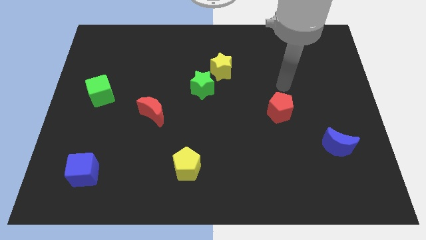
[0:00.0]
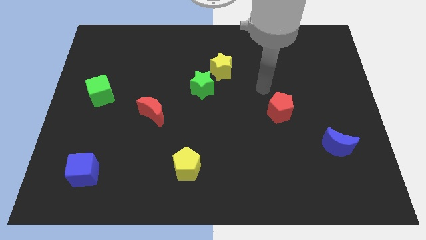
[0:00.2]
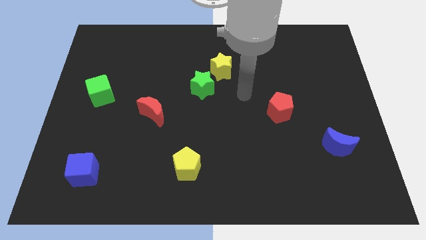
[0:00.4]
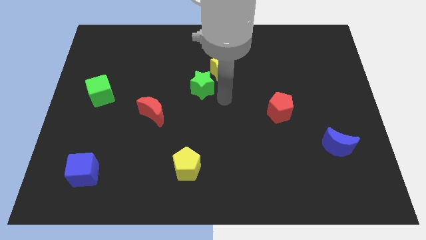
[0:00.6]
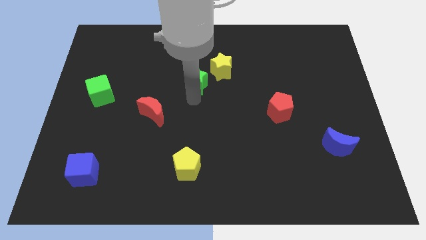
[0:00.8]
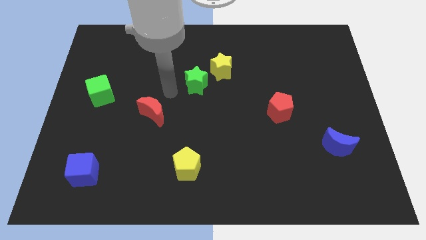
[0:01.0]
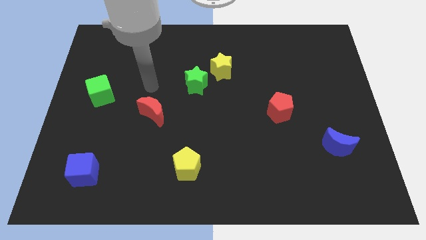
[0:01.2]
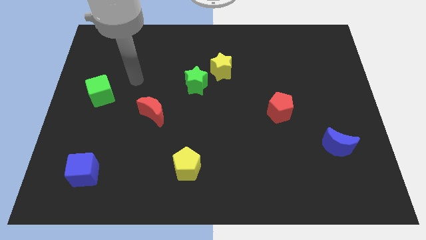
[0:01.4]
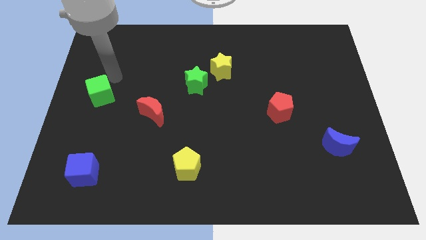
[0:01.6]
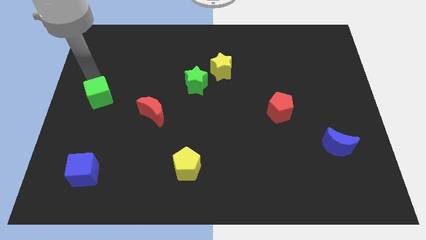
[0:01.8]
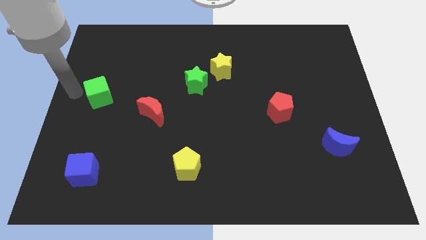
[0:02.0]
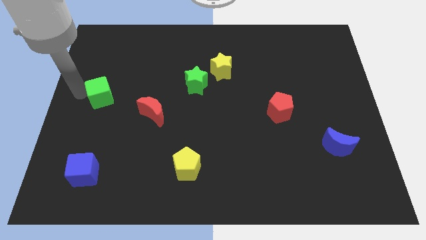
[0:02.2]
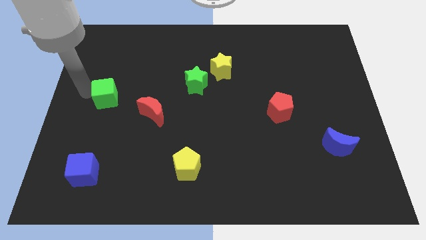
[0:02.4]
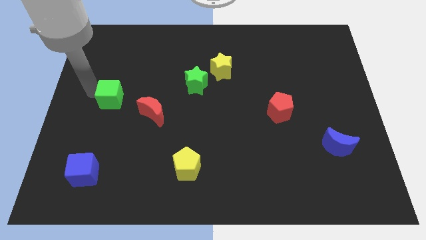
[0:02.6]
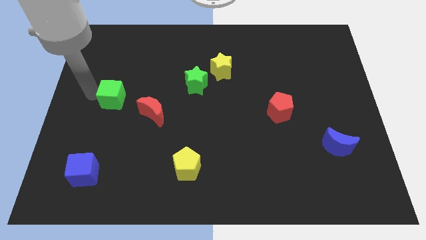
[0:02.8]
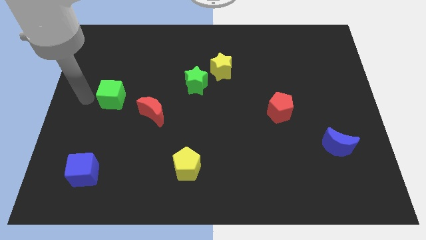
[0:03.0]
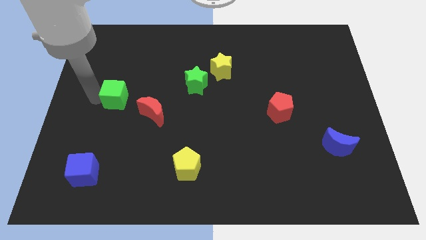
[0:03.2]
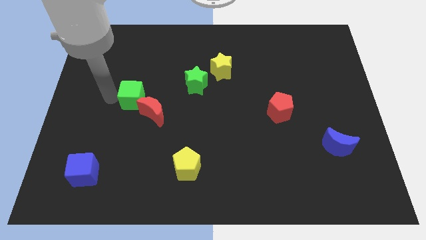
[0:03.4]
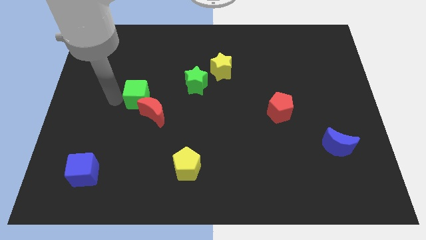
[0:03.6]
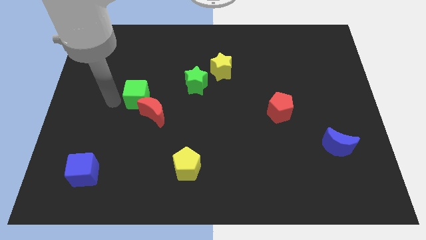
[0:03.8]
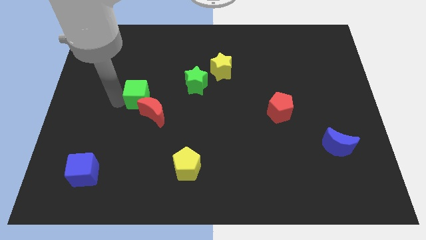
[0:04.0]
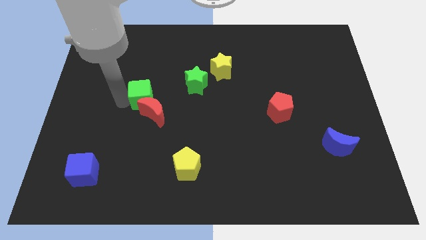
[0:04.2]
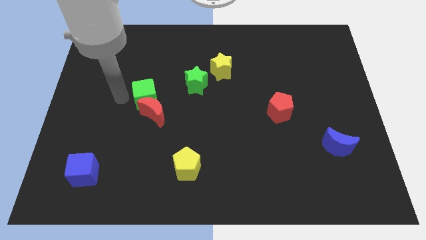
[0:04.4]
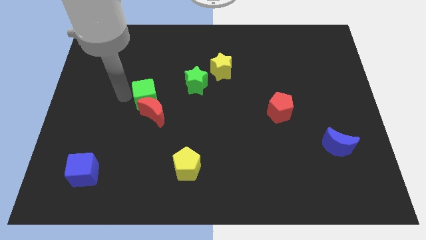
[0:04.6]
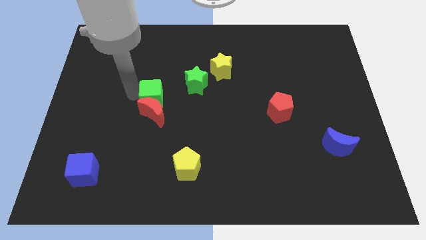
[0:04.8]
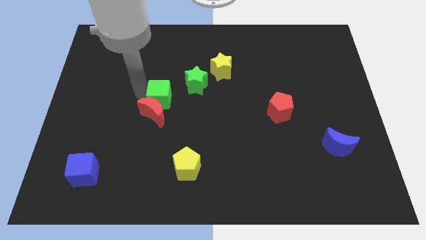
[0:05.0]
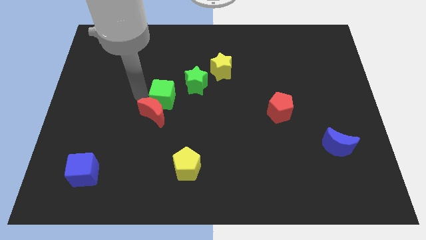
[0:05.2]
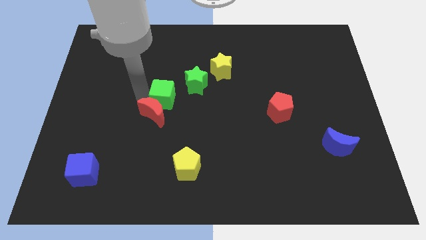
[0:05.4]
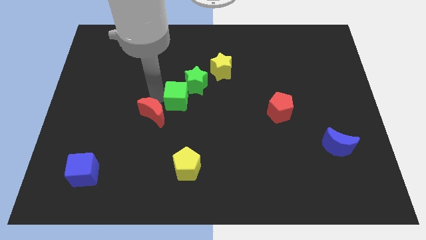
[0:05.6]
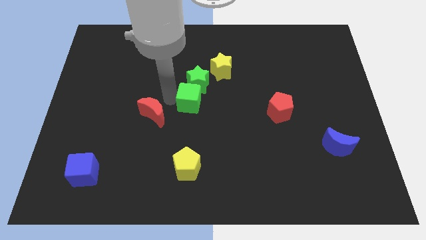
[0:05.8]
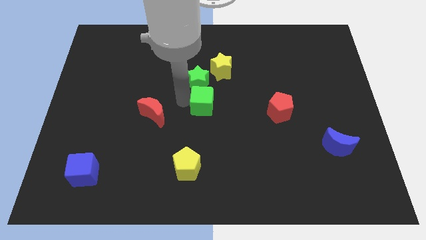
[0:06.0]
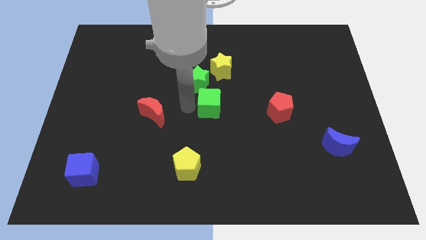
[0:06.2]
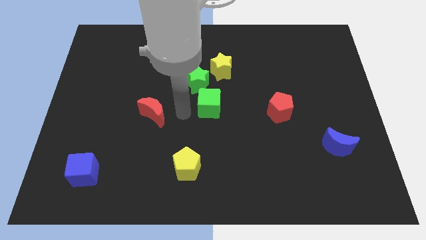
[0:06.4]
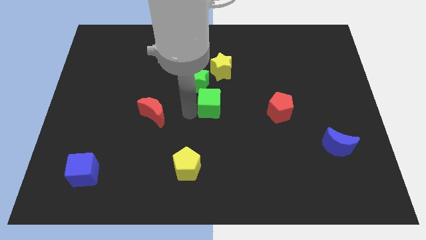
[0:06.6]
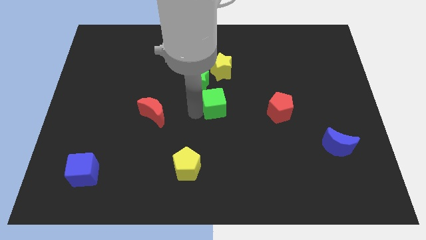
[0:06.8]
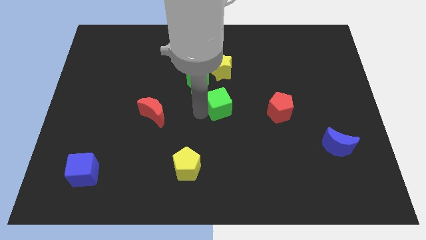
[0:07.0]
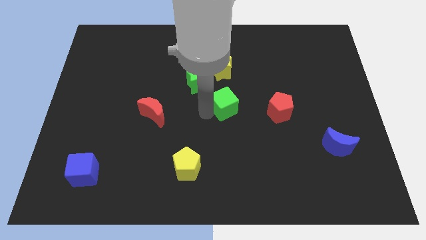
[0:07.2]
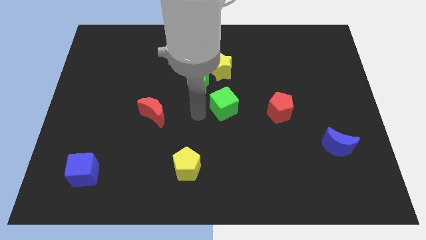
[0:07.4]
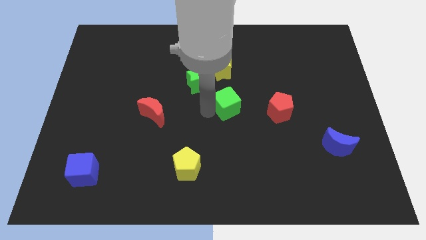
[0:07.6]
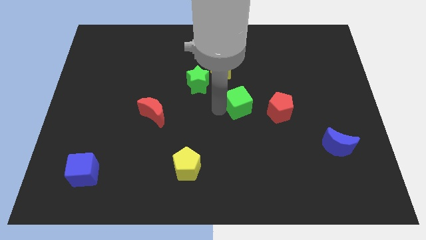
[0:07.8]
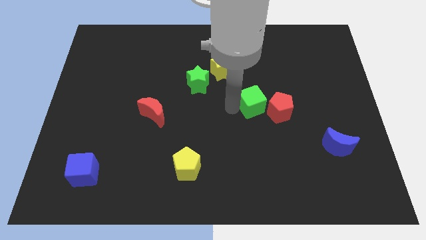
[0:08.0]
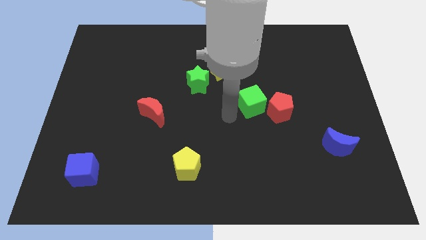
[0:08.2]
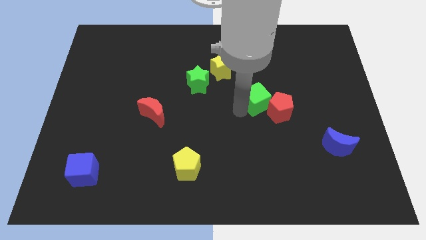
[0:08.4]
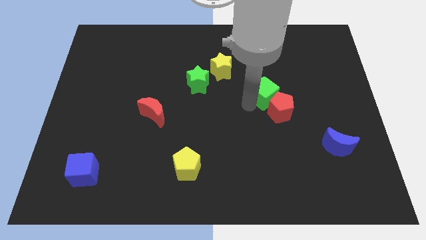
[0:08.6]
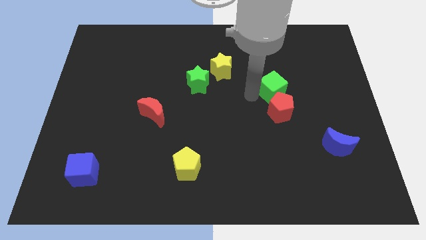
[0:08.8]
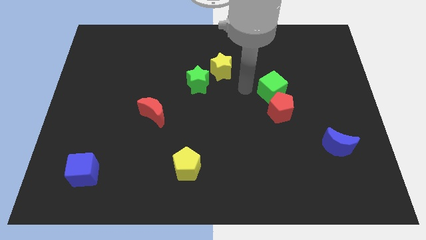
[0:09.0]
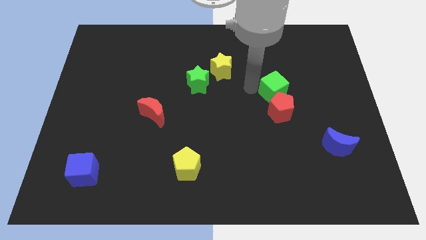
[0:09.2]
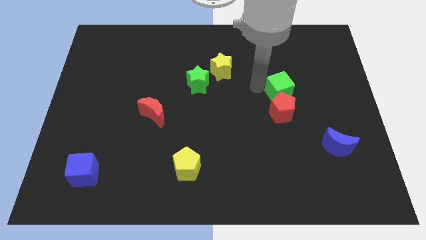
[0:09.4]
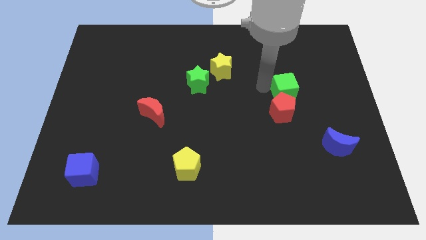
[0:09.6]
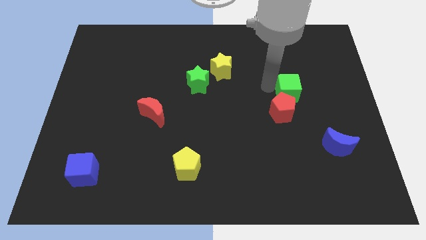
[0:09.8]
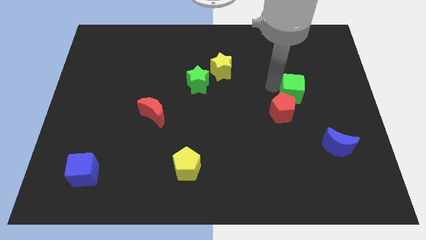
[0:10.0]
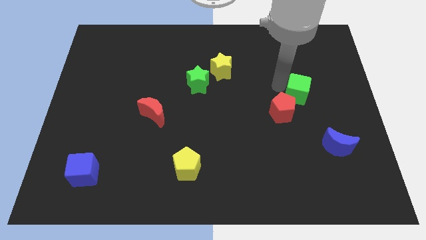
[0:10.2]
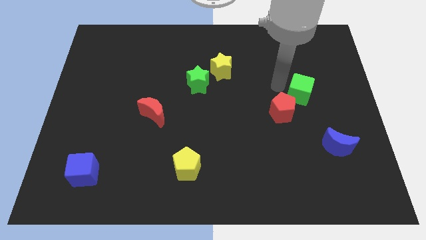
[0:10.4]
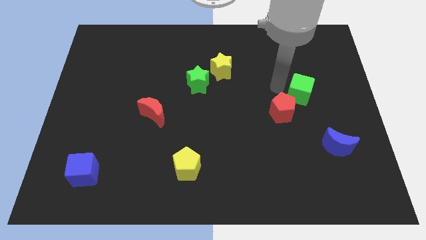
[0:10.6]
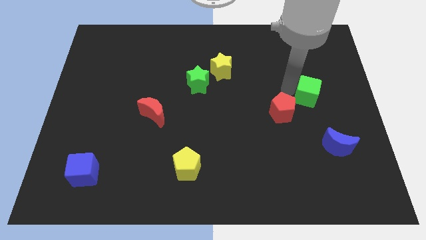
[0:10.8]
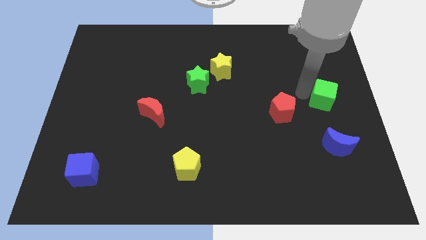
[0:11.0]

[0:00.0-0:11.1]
push the green cube to the right side

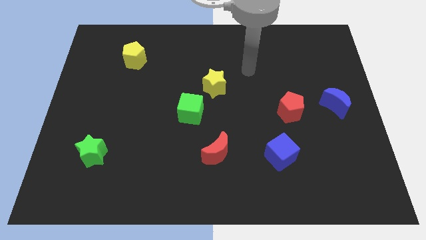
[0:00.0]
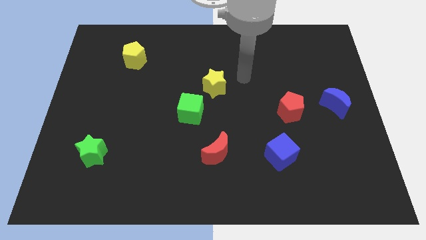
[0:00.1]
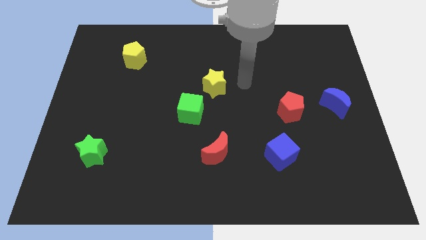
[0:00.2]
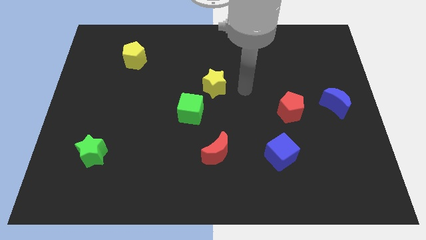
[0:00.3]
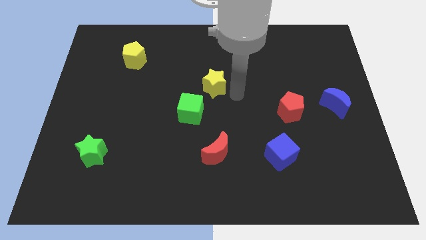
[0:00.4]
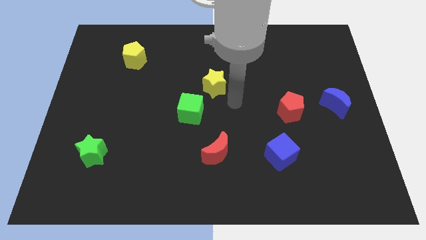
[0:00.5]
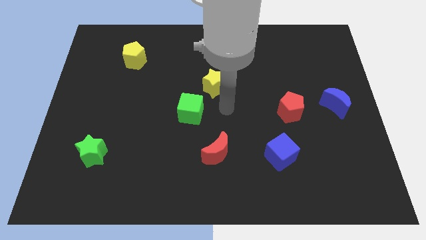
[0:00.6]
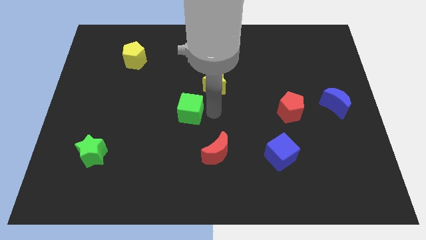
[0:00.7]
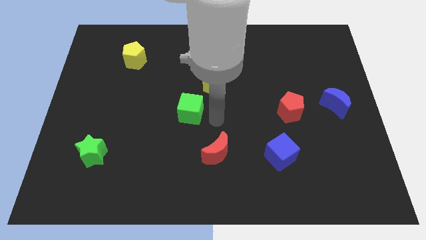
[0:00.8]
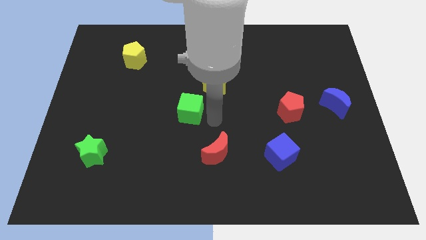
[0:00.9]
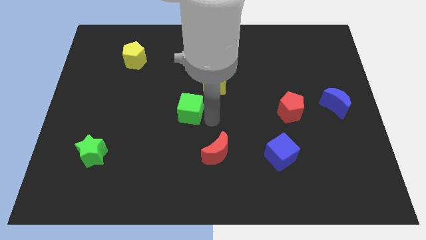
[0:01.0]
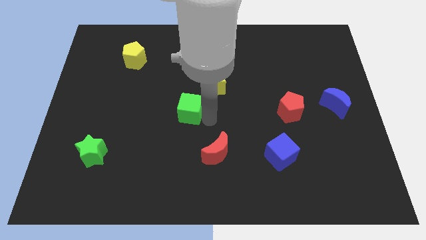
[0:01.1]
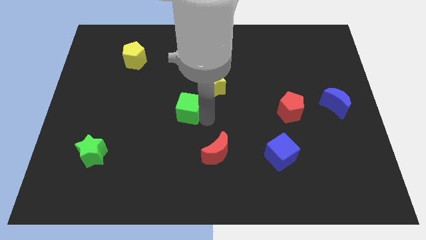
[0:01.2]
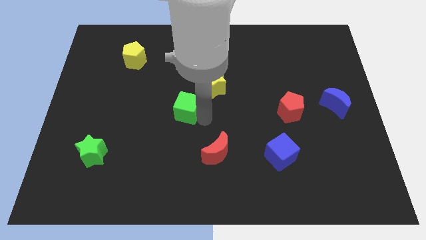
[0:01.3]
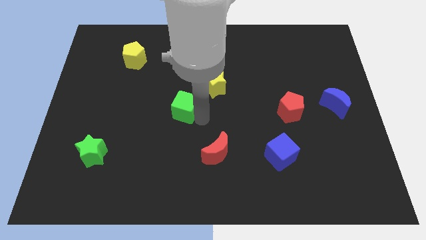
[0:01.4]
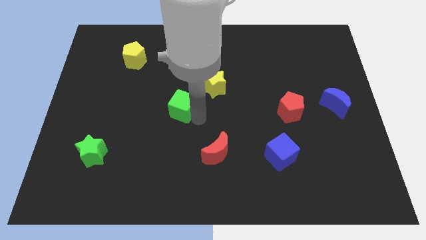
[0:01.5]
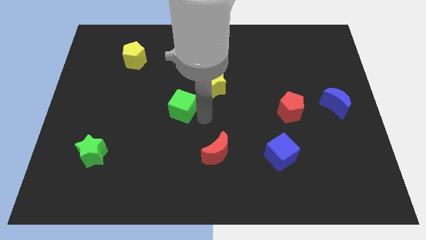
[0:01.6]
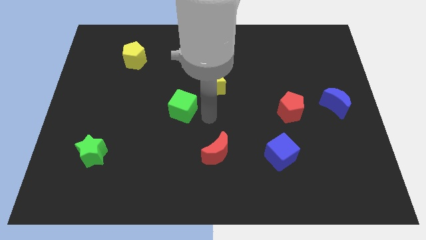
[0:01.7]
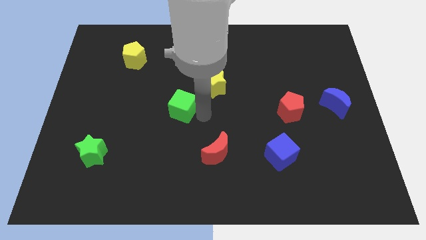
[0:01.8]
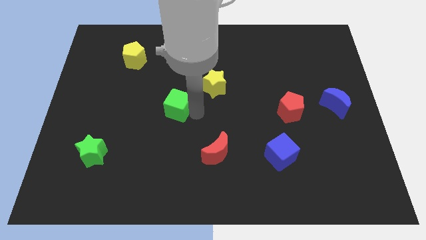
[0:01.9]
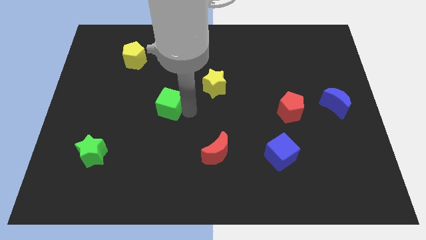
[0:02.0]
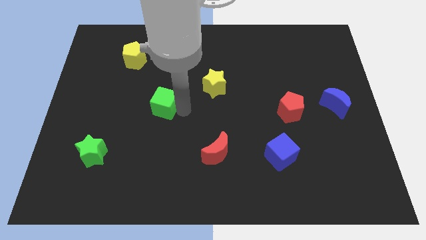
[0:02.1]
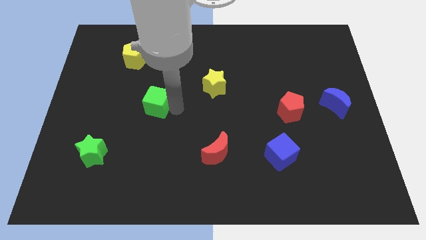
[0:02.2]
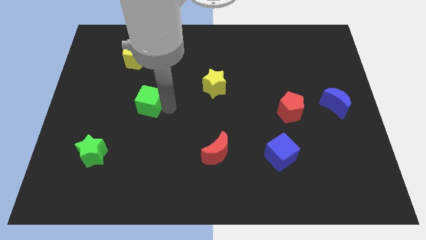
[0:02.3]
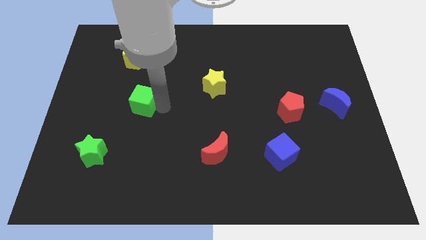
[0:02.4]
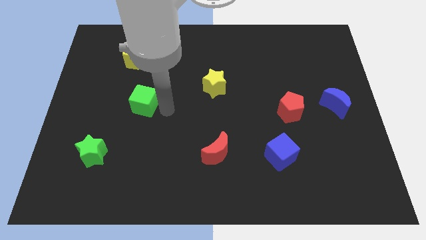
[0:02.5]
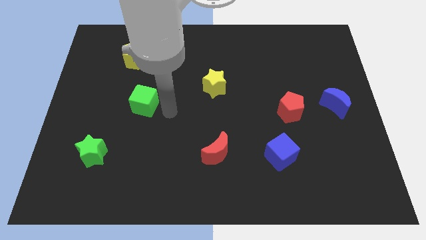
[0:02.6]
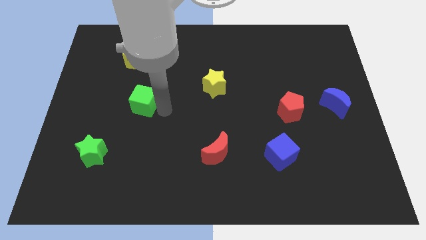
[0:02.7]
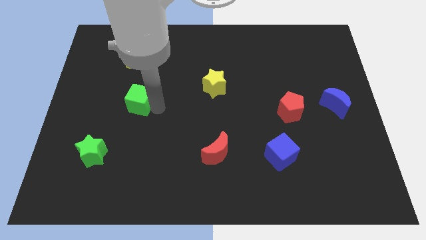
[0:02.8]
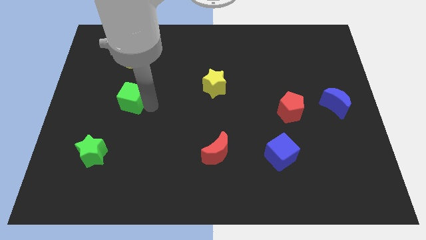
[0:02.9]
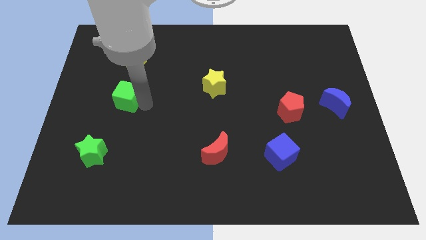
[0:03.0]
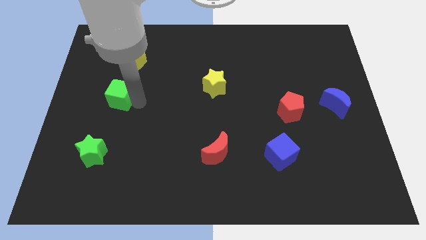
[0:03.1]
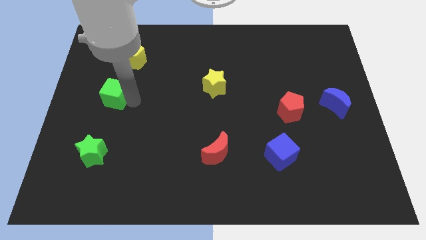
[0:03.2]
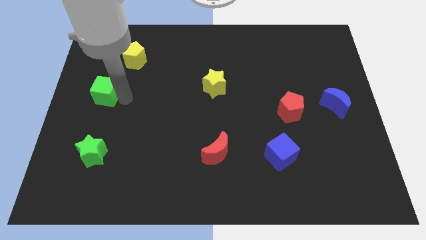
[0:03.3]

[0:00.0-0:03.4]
put the green cube to the left side
